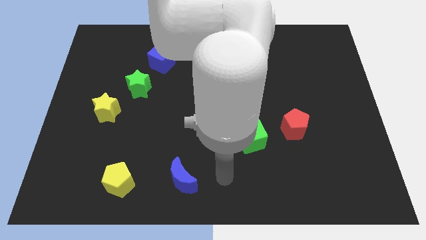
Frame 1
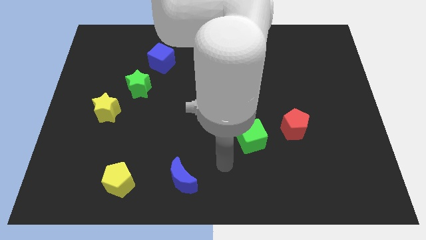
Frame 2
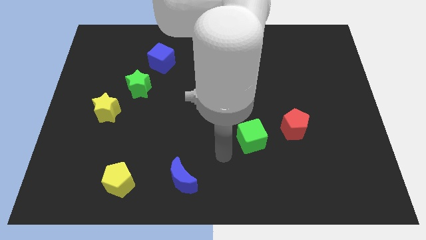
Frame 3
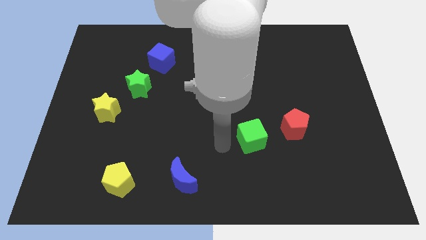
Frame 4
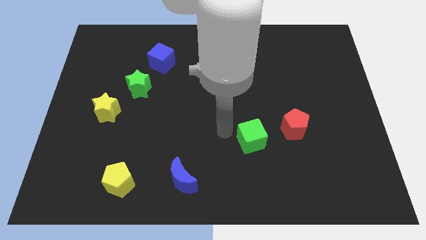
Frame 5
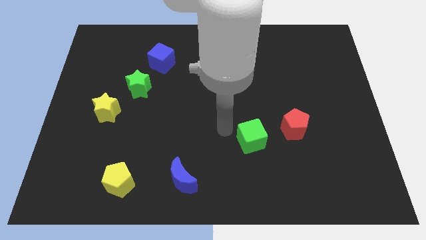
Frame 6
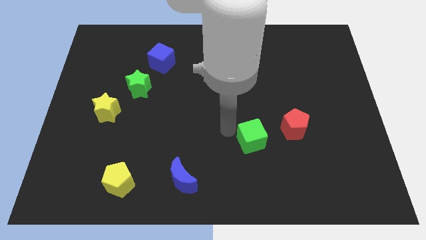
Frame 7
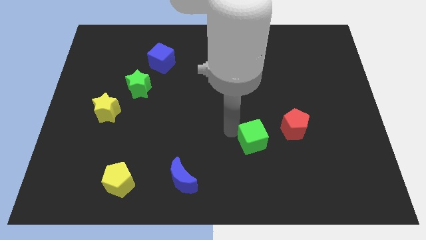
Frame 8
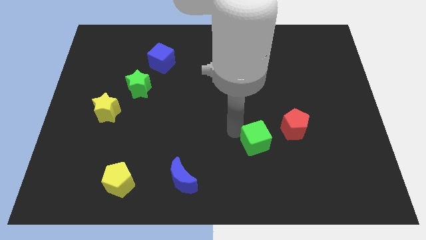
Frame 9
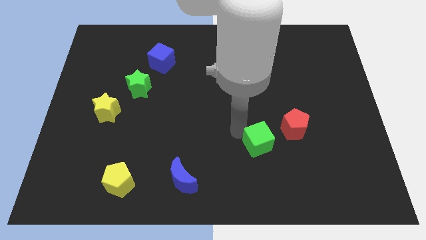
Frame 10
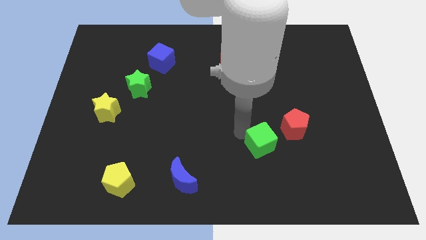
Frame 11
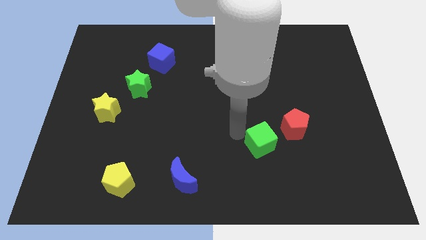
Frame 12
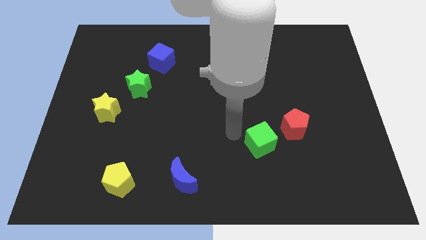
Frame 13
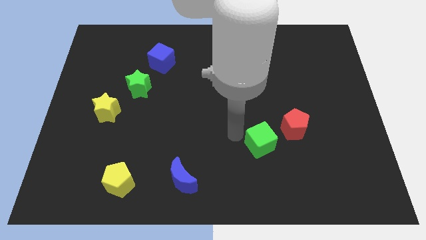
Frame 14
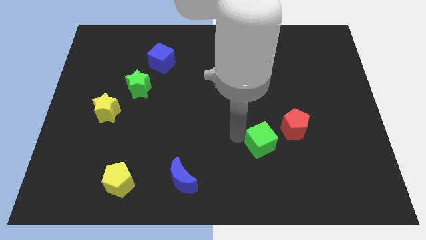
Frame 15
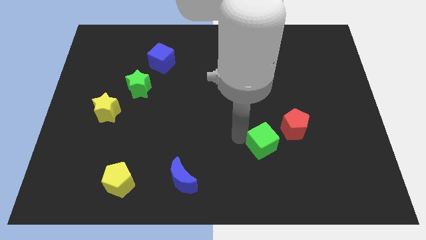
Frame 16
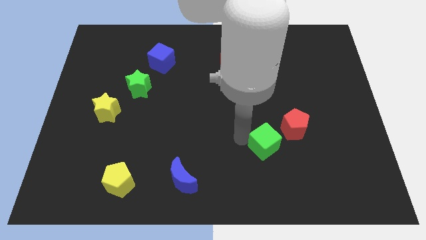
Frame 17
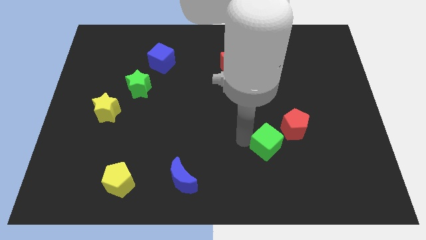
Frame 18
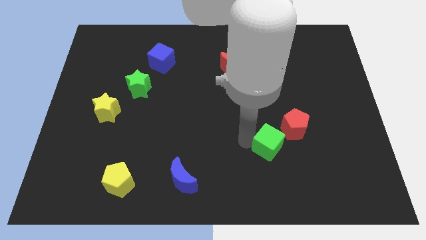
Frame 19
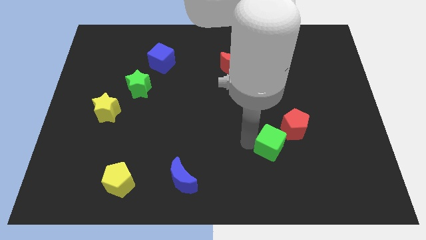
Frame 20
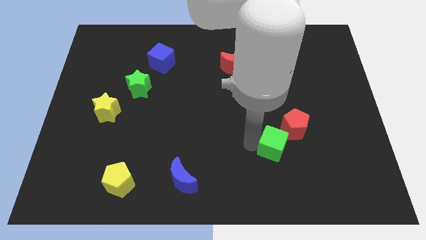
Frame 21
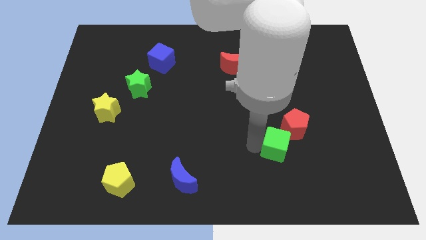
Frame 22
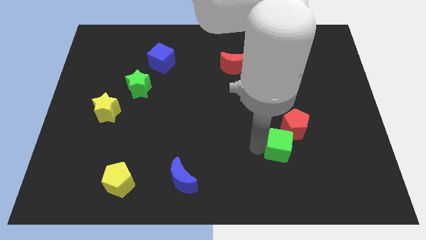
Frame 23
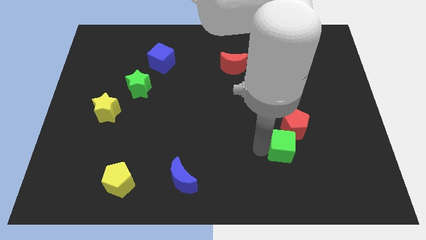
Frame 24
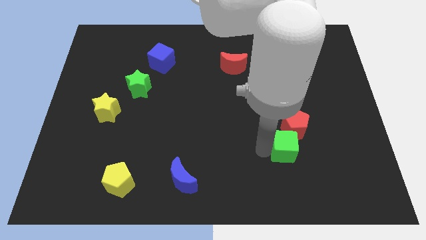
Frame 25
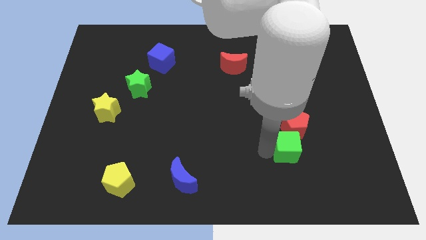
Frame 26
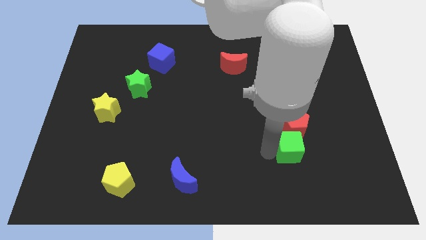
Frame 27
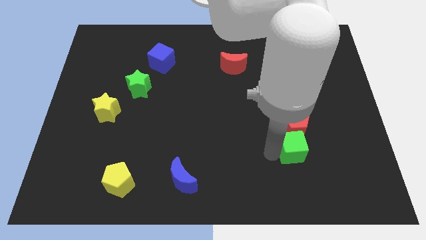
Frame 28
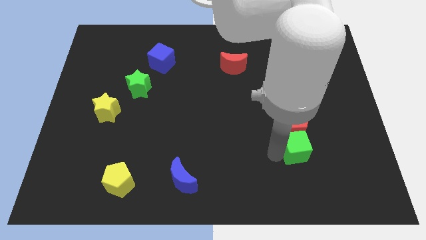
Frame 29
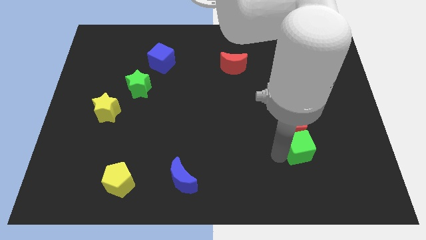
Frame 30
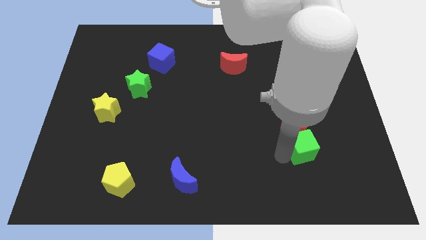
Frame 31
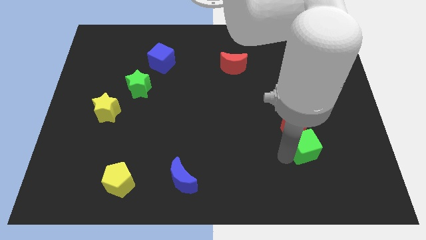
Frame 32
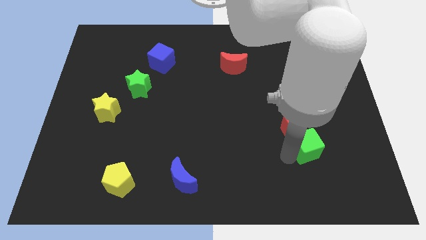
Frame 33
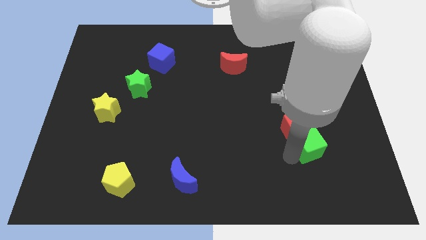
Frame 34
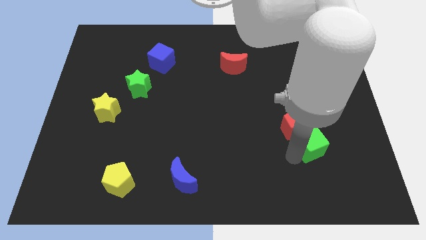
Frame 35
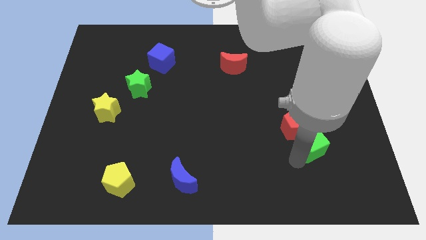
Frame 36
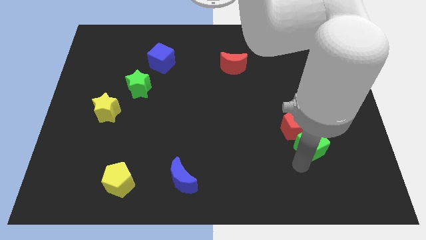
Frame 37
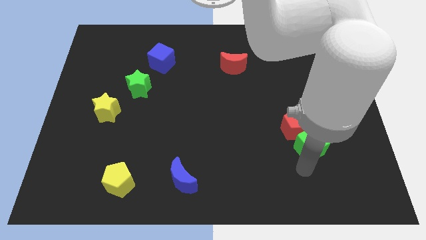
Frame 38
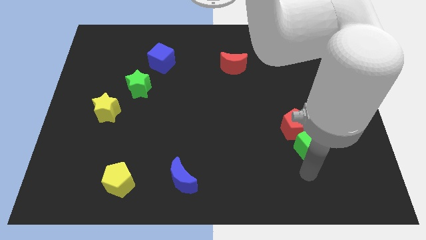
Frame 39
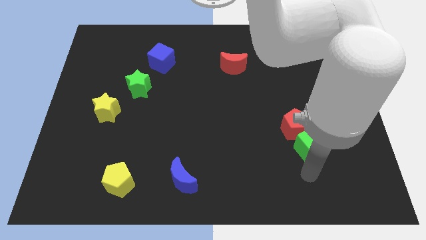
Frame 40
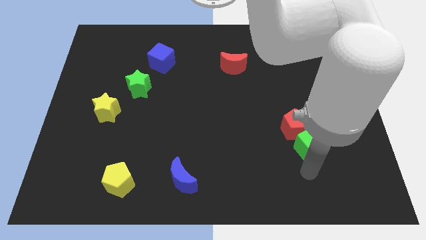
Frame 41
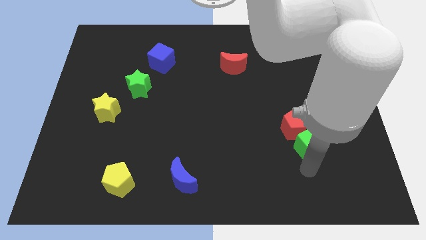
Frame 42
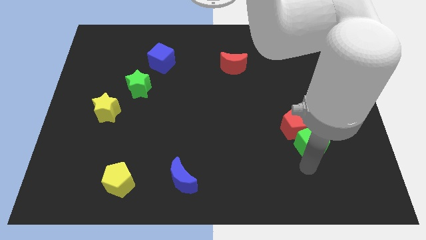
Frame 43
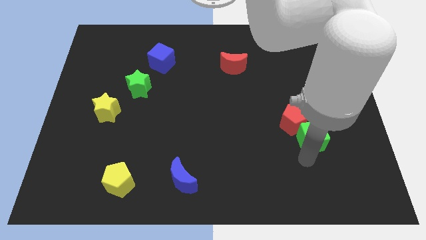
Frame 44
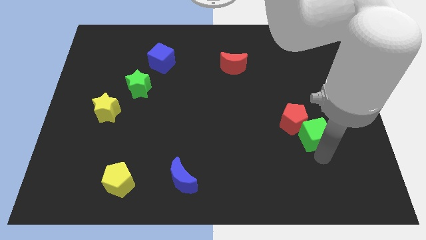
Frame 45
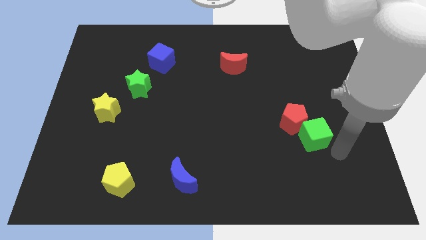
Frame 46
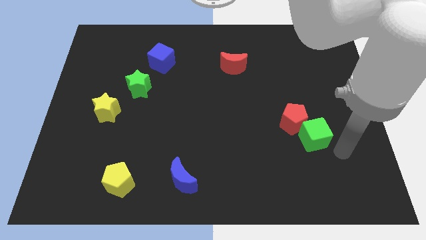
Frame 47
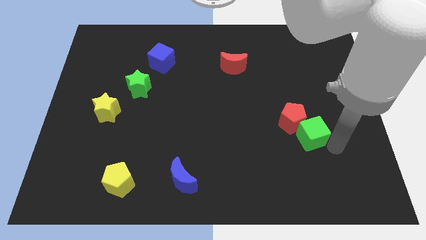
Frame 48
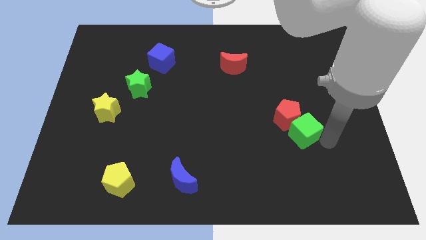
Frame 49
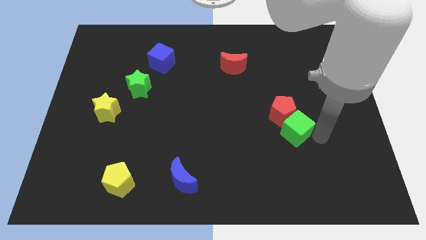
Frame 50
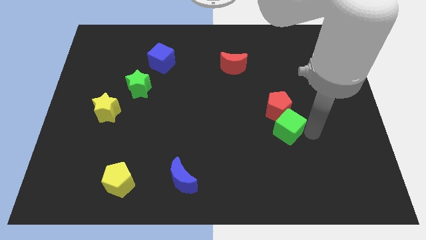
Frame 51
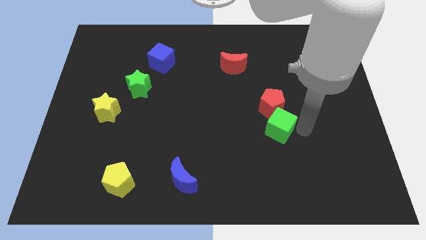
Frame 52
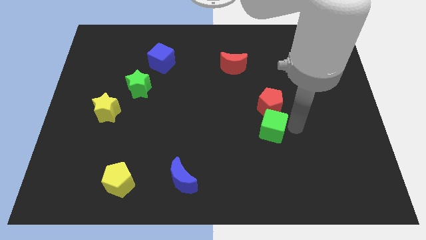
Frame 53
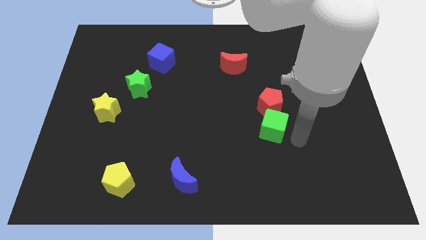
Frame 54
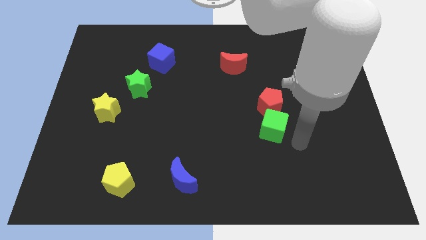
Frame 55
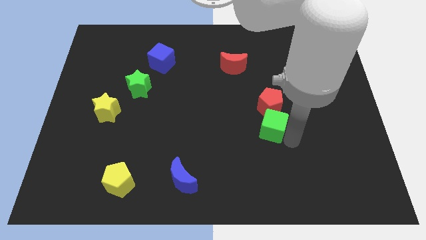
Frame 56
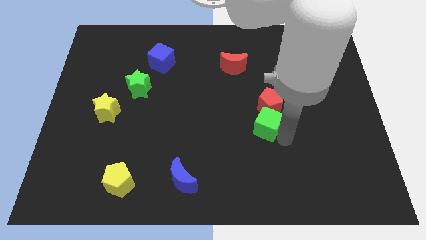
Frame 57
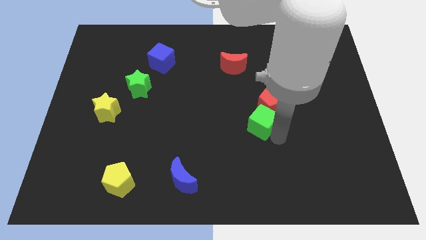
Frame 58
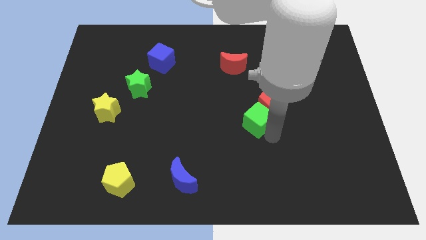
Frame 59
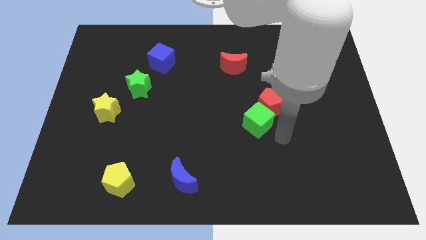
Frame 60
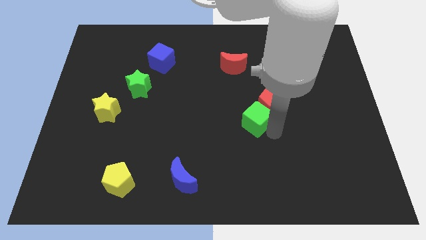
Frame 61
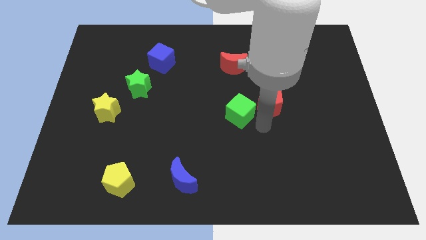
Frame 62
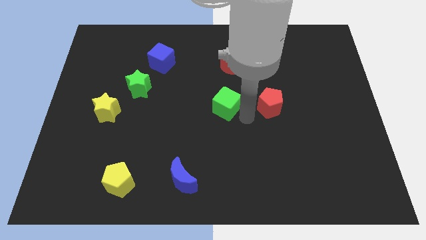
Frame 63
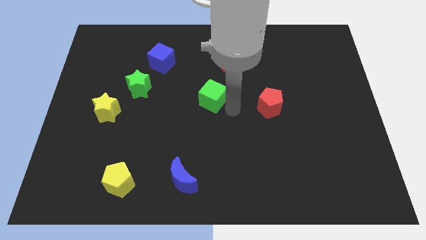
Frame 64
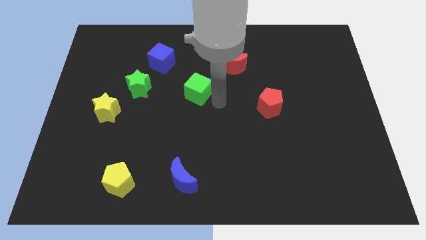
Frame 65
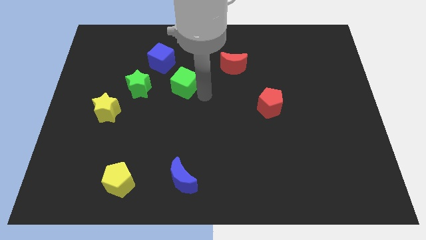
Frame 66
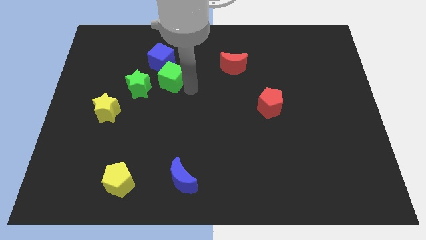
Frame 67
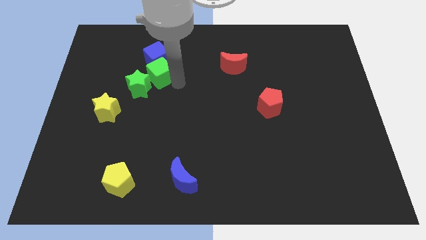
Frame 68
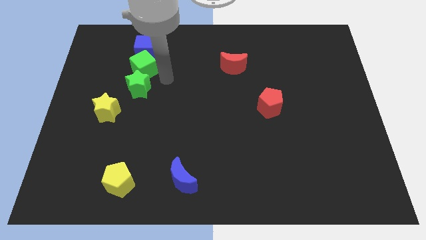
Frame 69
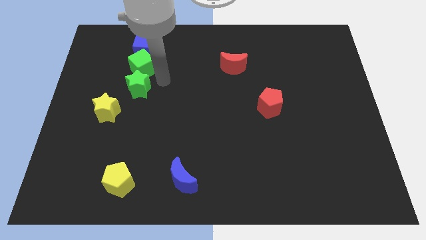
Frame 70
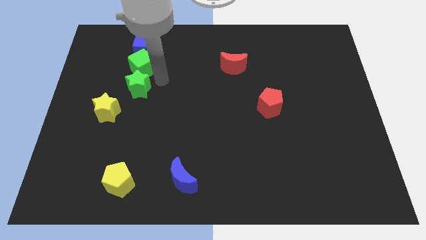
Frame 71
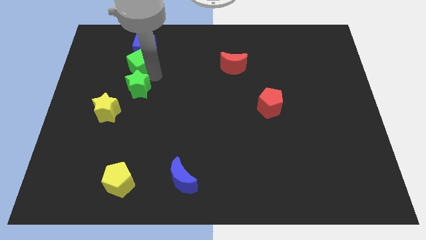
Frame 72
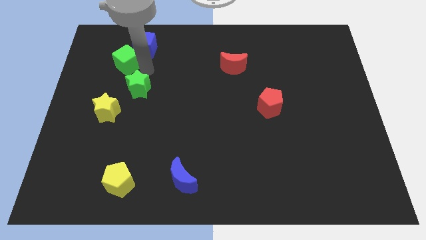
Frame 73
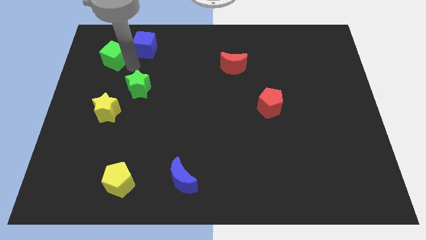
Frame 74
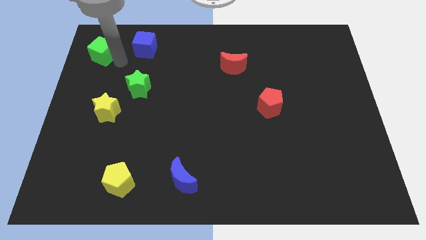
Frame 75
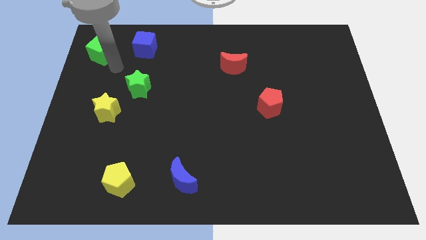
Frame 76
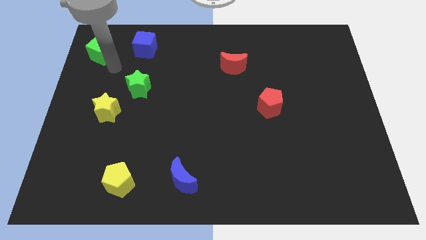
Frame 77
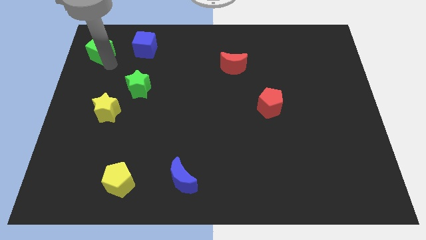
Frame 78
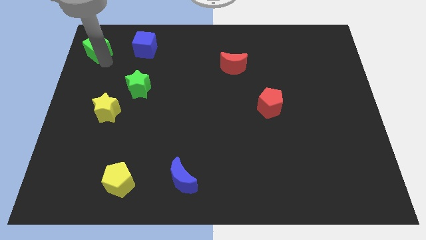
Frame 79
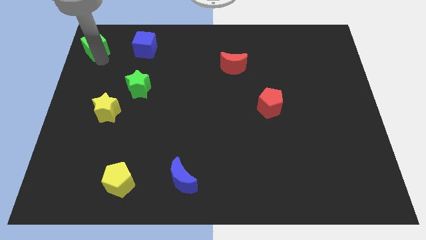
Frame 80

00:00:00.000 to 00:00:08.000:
slide the green cube to the upper left corner
